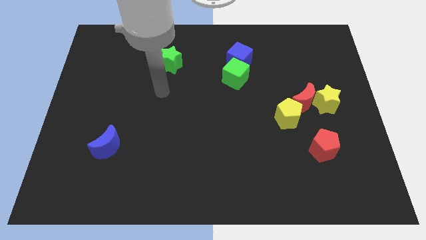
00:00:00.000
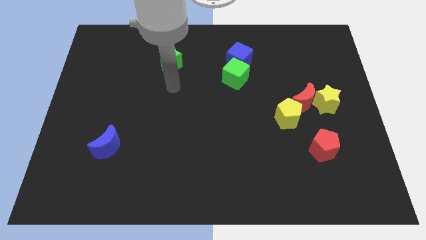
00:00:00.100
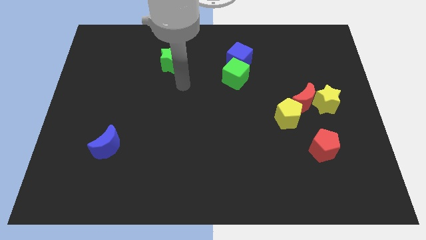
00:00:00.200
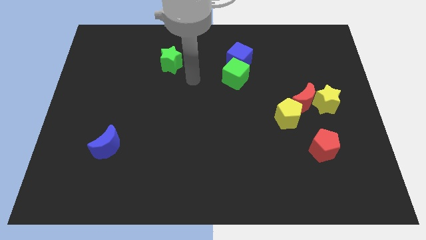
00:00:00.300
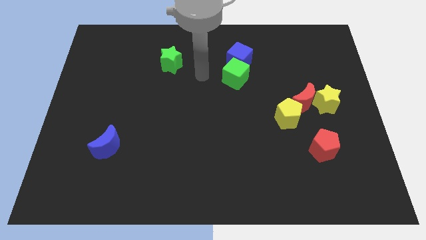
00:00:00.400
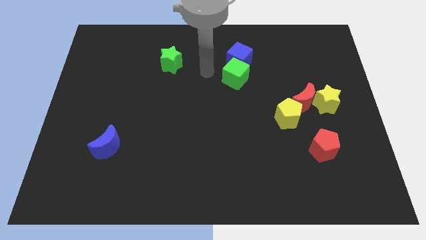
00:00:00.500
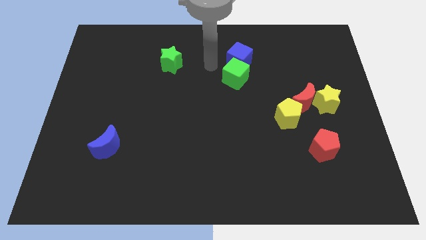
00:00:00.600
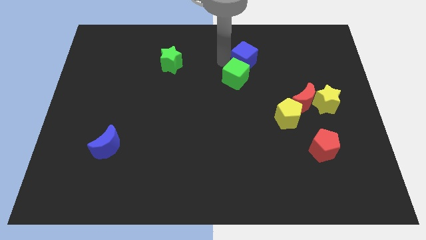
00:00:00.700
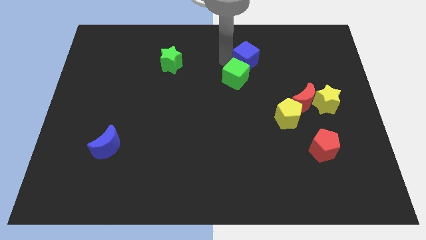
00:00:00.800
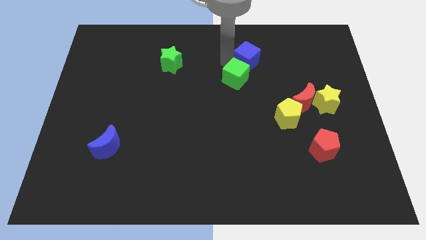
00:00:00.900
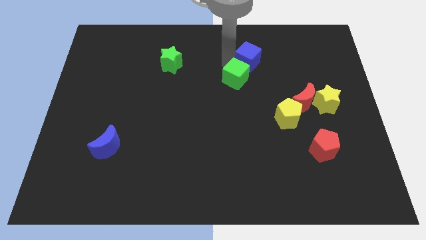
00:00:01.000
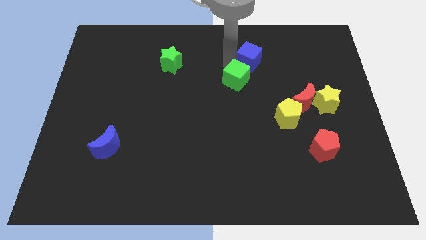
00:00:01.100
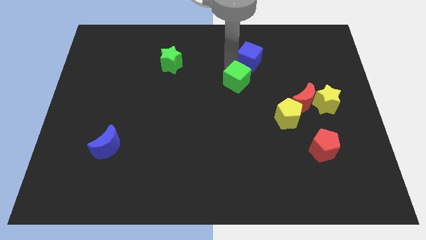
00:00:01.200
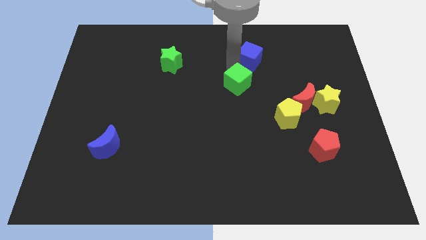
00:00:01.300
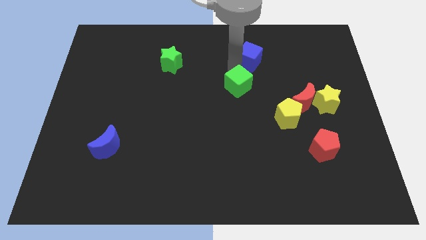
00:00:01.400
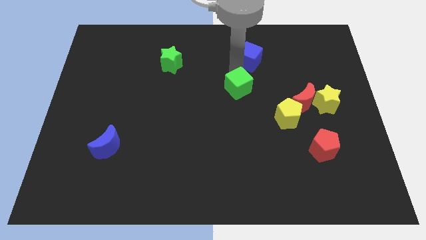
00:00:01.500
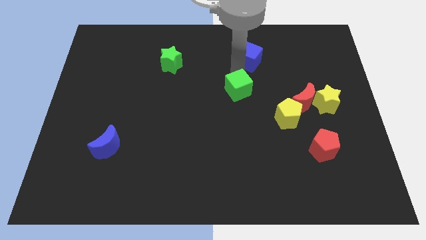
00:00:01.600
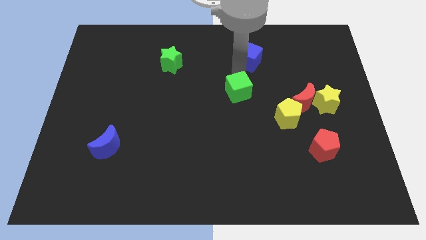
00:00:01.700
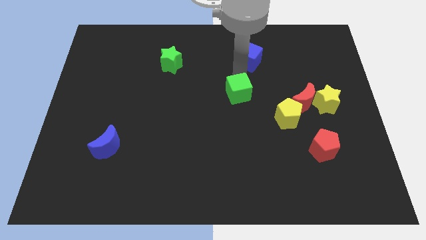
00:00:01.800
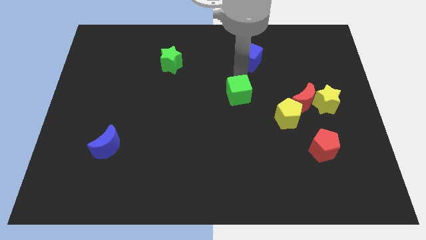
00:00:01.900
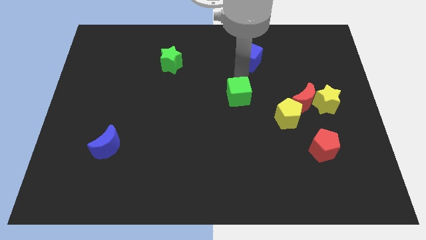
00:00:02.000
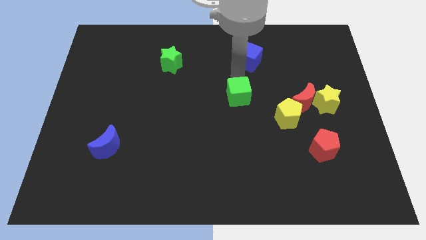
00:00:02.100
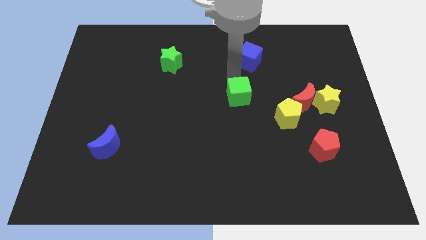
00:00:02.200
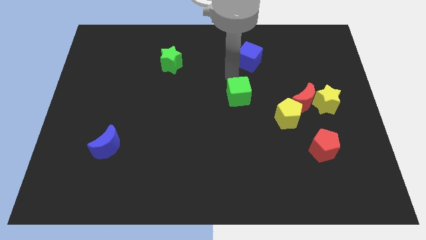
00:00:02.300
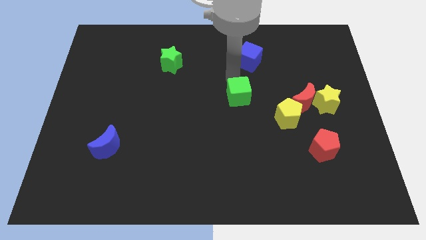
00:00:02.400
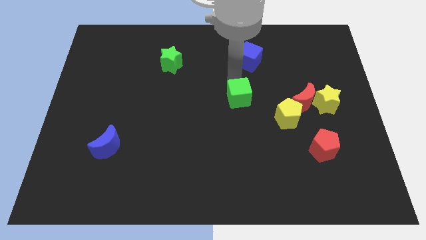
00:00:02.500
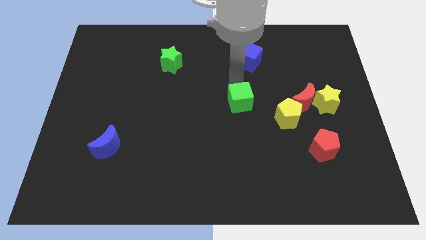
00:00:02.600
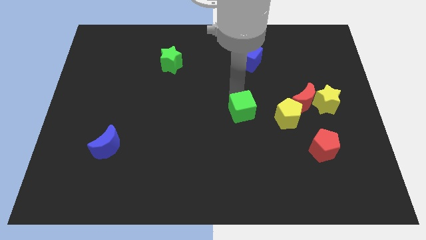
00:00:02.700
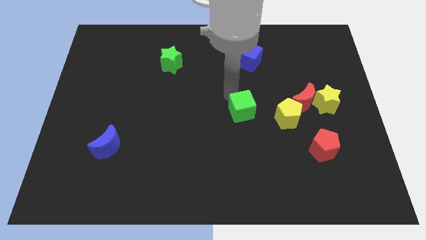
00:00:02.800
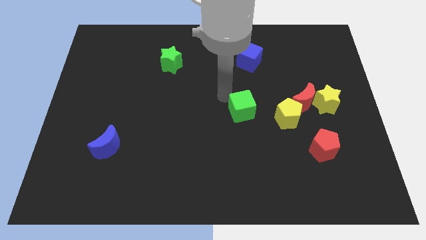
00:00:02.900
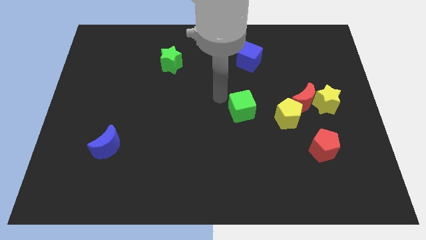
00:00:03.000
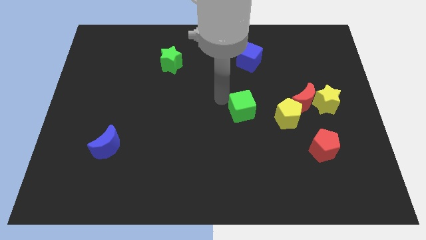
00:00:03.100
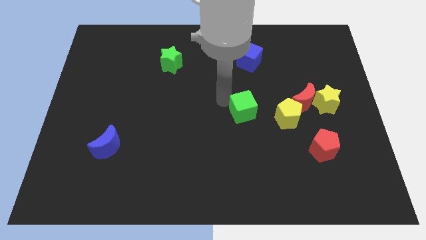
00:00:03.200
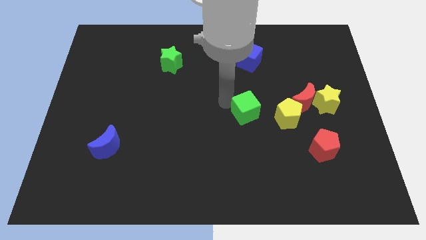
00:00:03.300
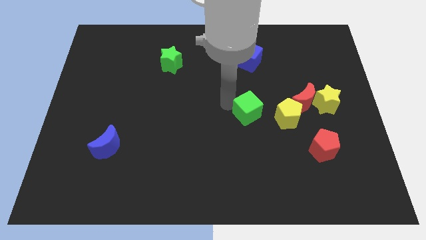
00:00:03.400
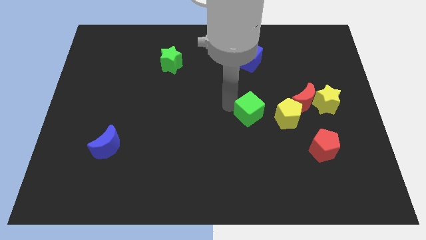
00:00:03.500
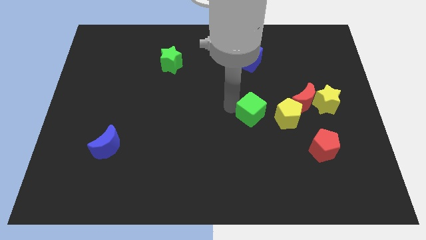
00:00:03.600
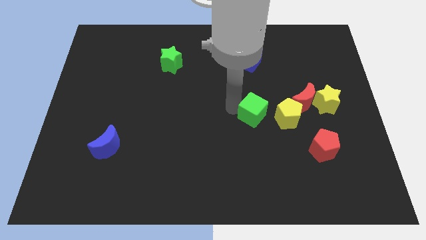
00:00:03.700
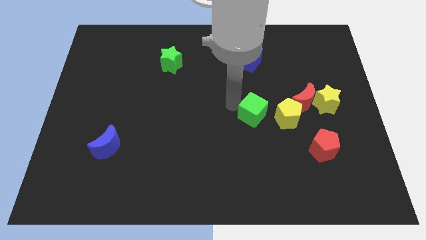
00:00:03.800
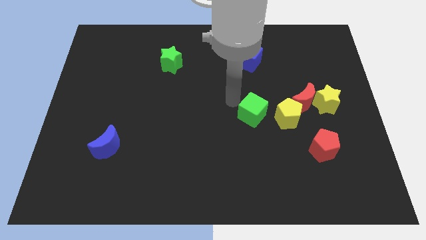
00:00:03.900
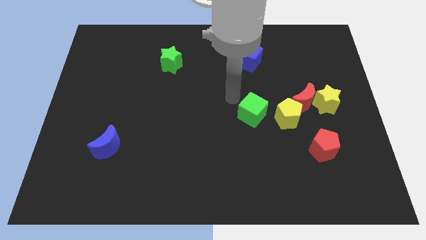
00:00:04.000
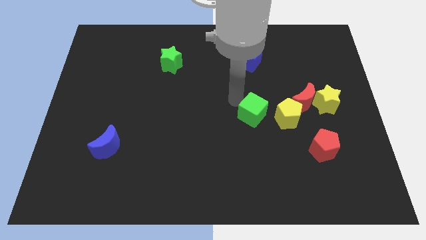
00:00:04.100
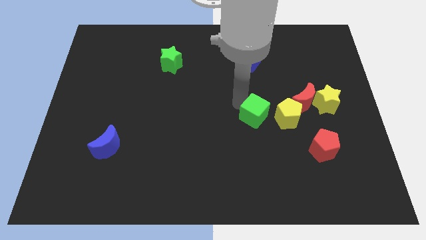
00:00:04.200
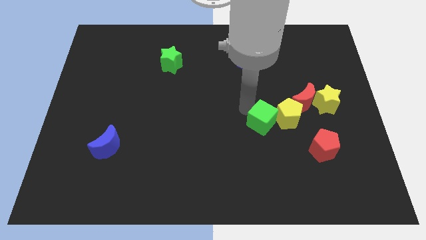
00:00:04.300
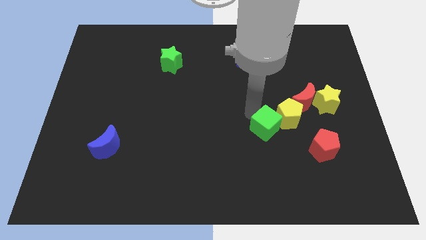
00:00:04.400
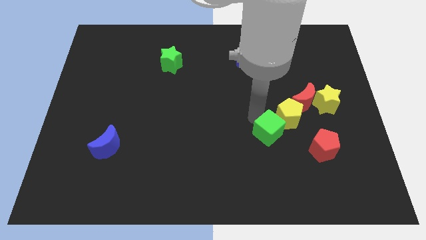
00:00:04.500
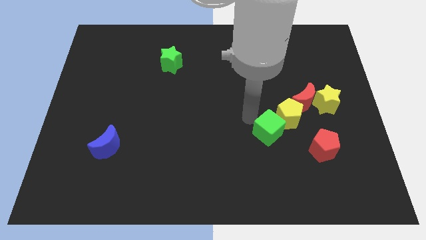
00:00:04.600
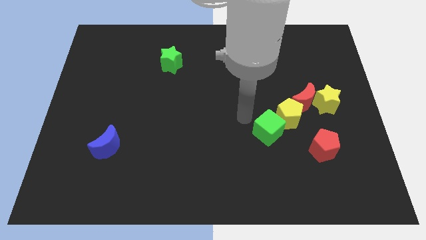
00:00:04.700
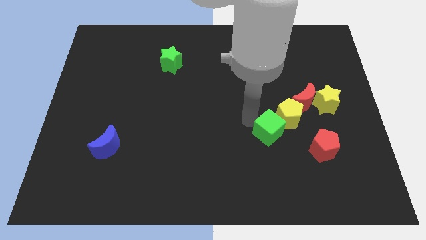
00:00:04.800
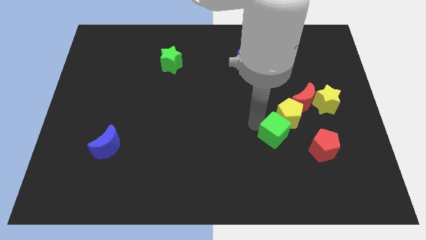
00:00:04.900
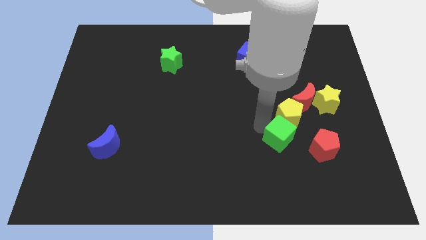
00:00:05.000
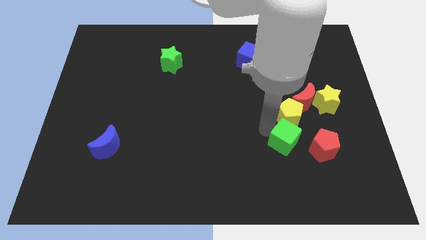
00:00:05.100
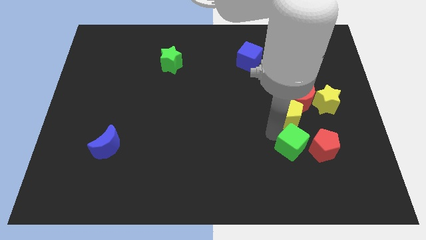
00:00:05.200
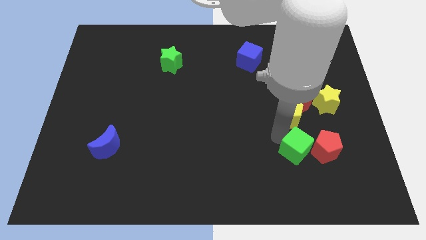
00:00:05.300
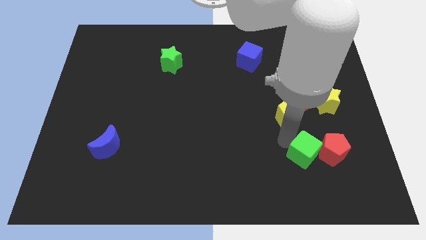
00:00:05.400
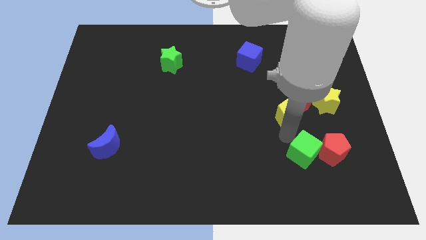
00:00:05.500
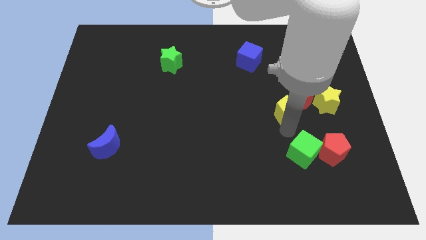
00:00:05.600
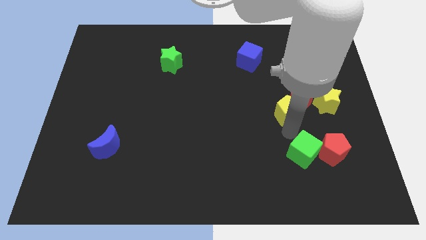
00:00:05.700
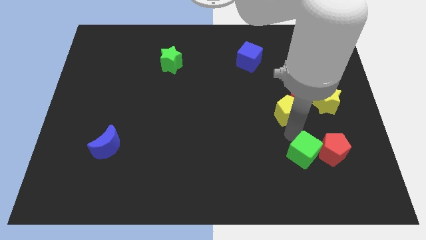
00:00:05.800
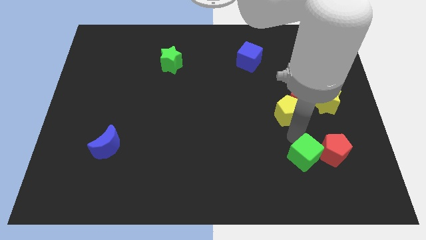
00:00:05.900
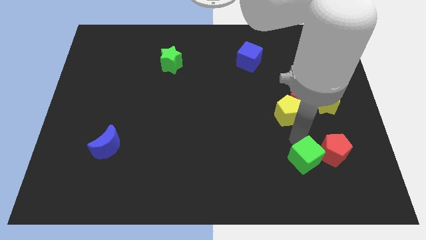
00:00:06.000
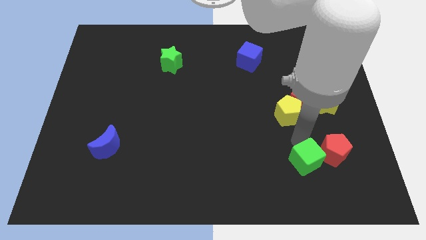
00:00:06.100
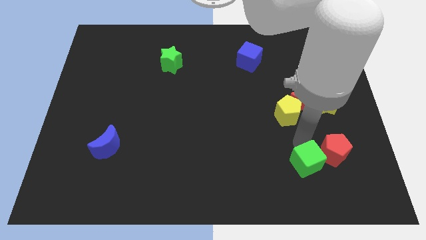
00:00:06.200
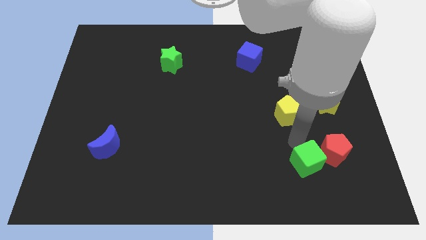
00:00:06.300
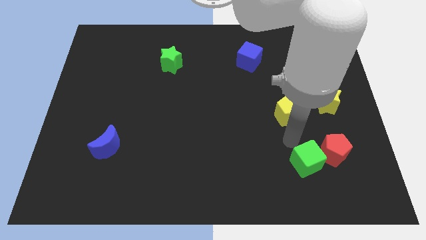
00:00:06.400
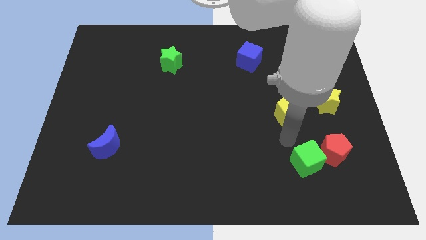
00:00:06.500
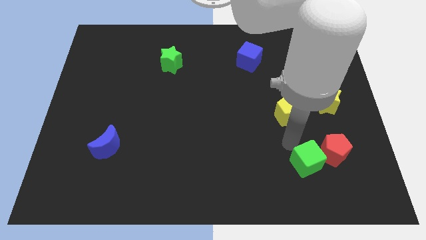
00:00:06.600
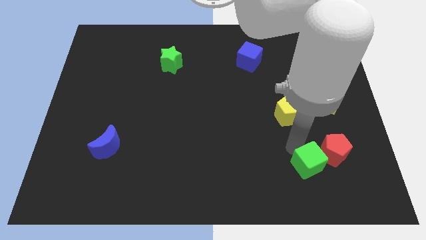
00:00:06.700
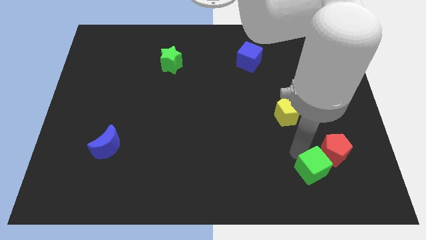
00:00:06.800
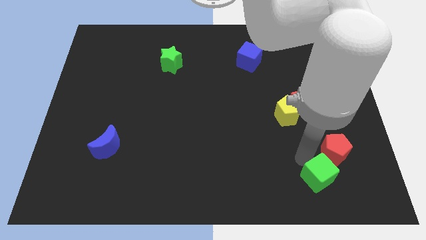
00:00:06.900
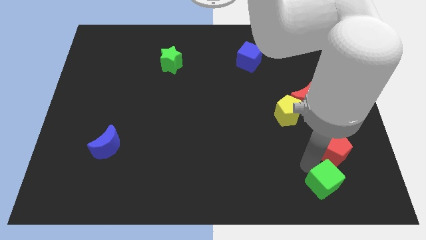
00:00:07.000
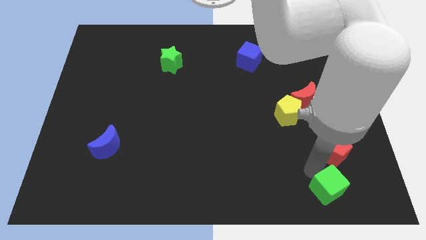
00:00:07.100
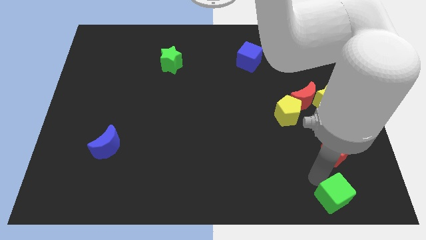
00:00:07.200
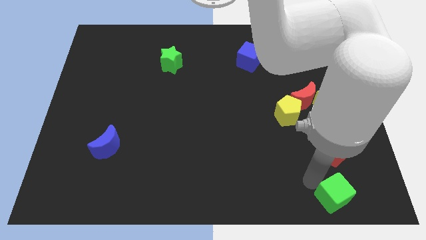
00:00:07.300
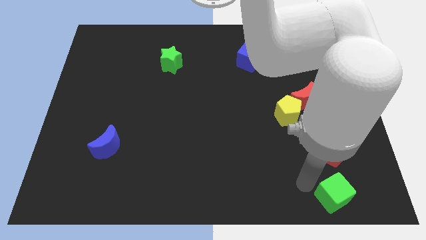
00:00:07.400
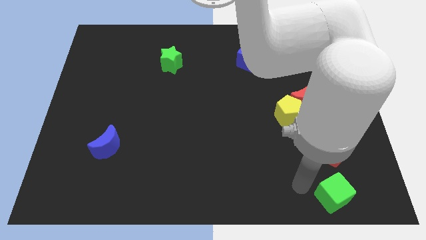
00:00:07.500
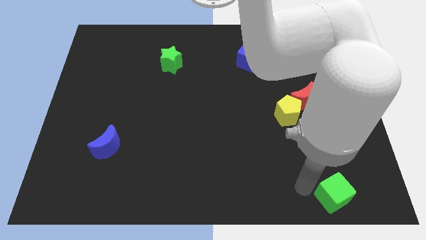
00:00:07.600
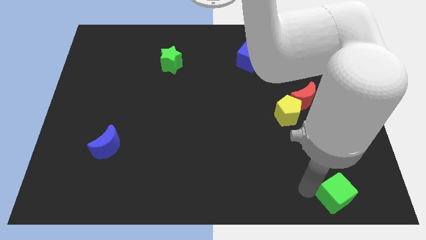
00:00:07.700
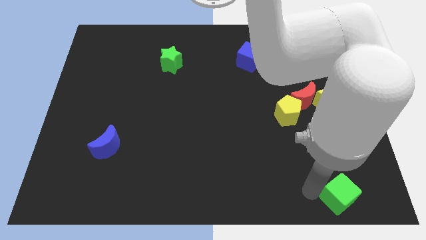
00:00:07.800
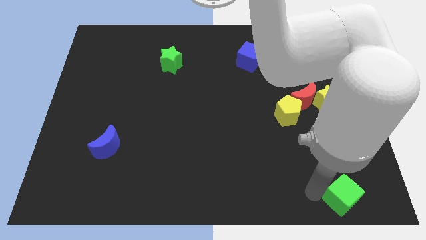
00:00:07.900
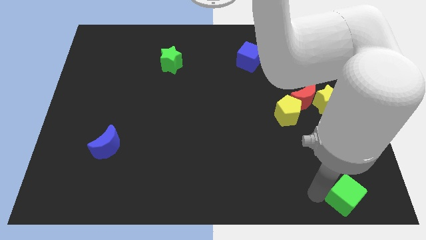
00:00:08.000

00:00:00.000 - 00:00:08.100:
move the green cube to the lower right corner
